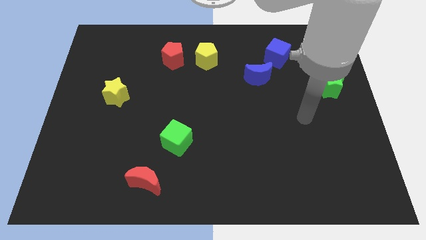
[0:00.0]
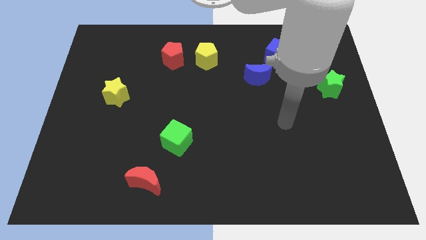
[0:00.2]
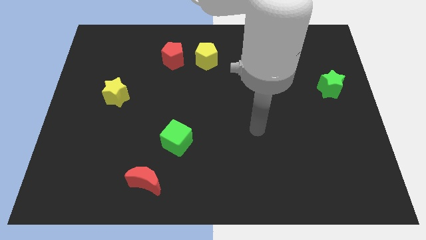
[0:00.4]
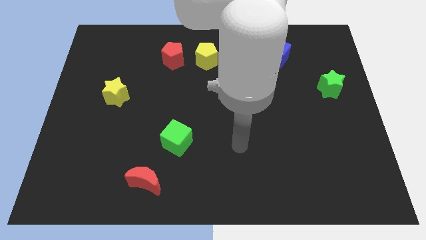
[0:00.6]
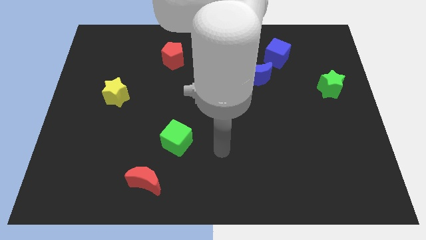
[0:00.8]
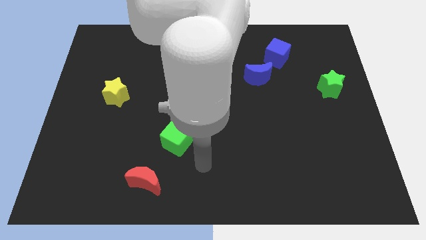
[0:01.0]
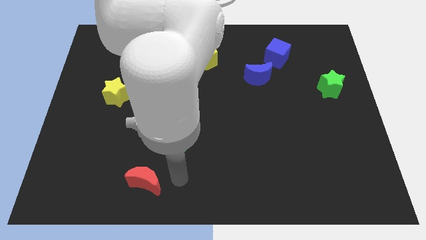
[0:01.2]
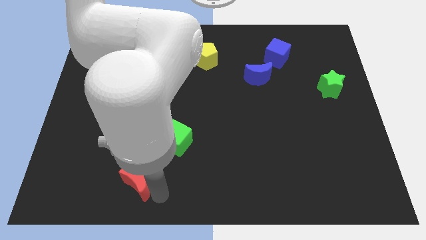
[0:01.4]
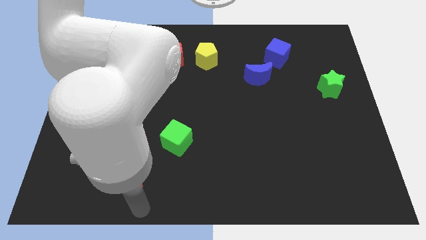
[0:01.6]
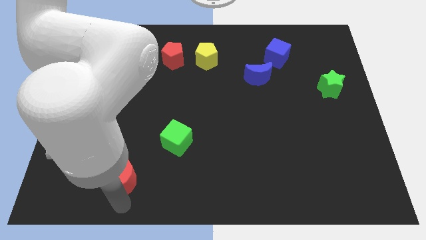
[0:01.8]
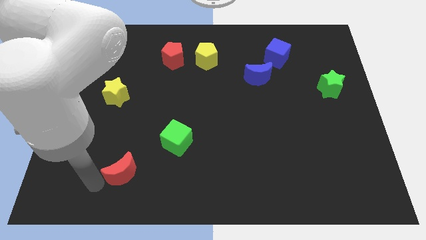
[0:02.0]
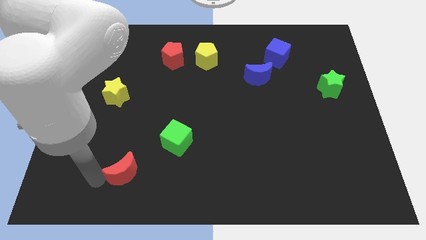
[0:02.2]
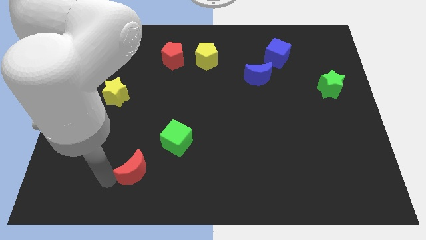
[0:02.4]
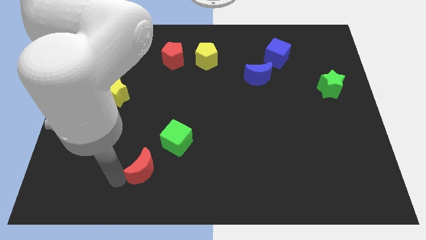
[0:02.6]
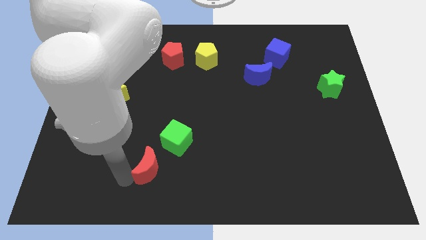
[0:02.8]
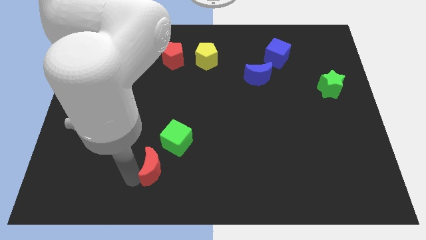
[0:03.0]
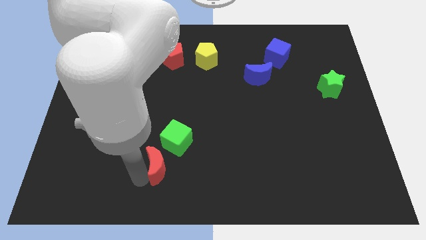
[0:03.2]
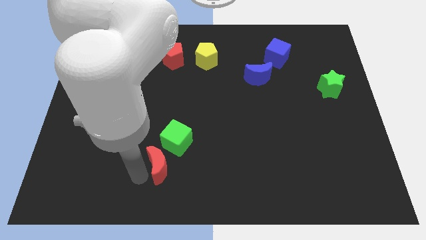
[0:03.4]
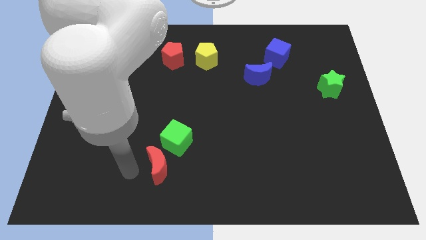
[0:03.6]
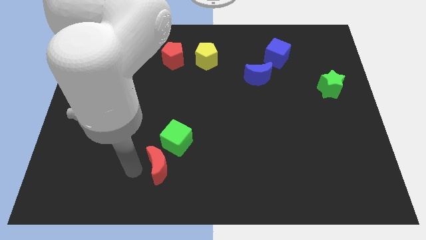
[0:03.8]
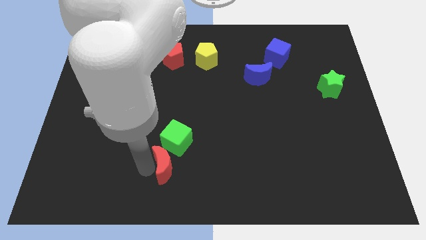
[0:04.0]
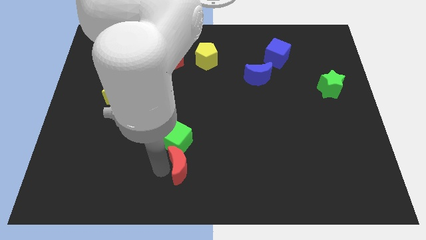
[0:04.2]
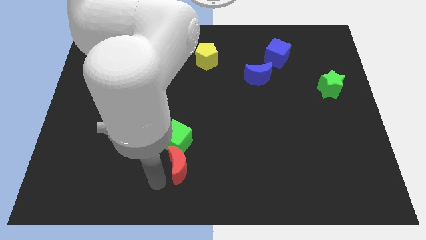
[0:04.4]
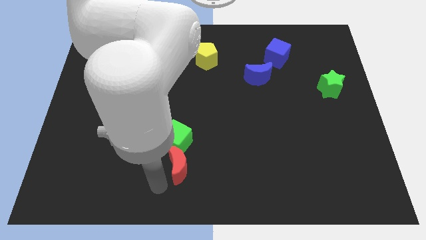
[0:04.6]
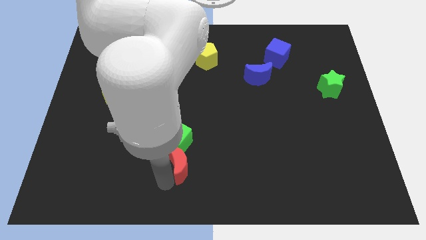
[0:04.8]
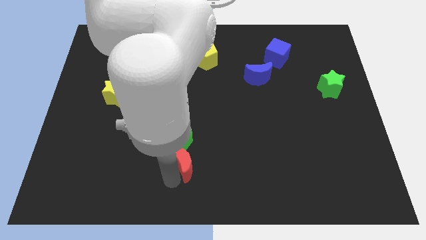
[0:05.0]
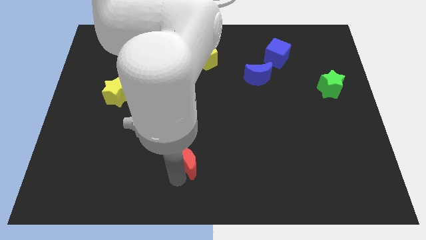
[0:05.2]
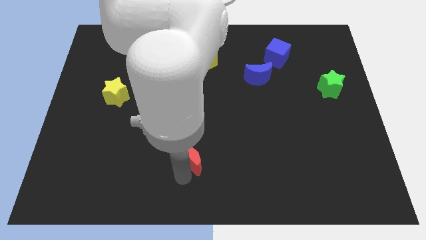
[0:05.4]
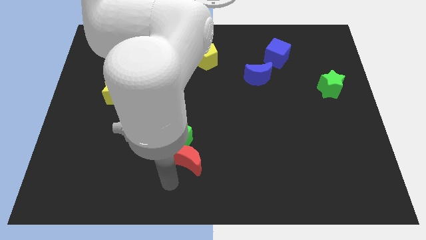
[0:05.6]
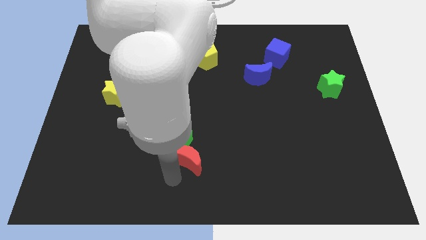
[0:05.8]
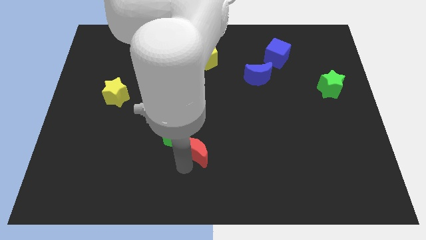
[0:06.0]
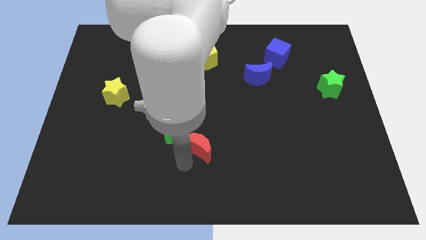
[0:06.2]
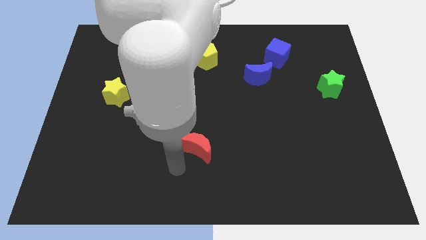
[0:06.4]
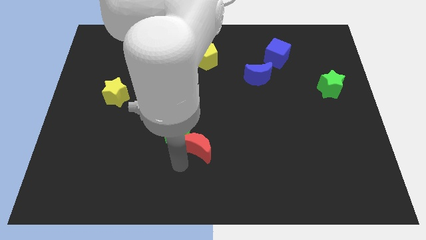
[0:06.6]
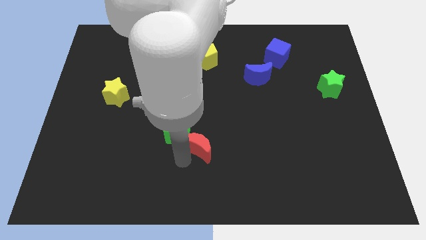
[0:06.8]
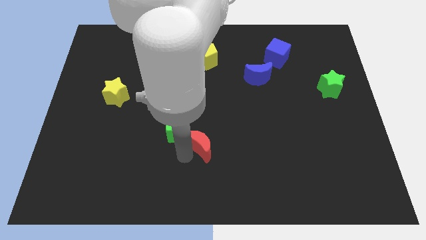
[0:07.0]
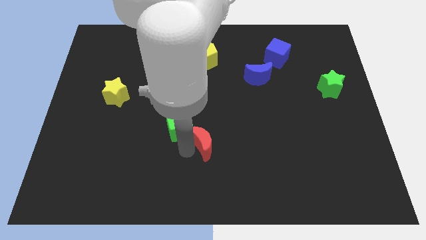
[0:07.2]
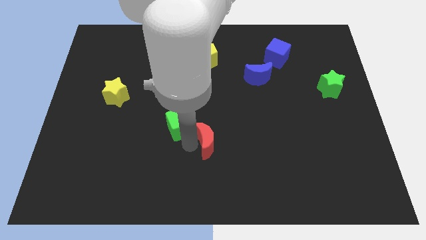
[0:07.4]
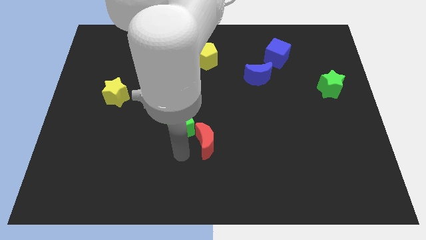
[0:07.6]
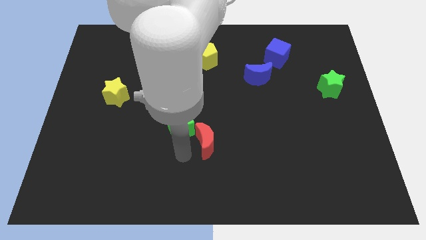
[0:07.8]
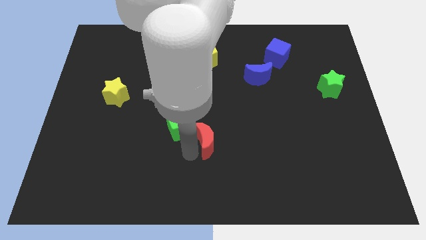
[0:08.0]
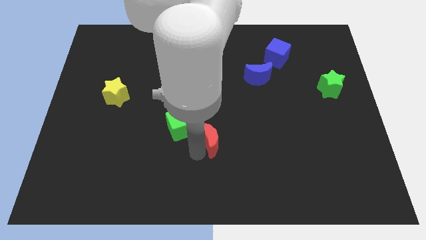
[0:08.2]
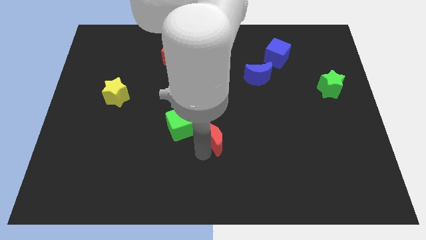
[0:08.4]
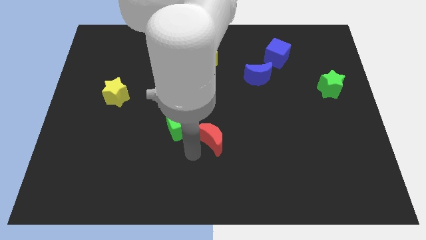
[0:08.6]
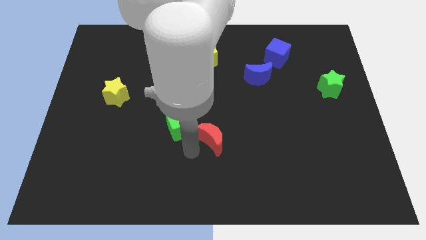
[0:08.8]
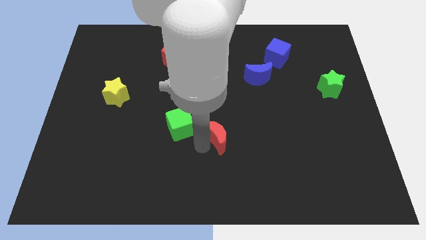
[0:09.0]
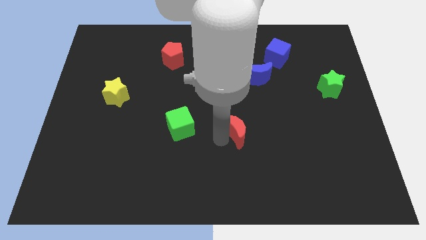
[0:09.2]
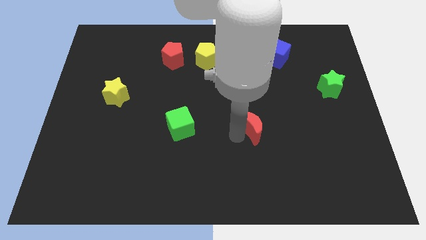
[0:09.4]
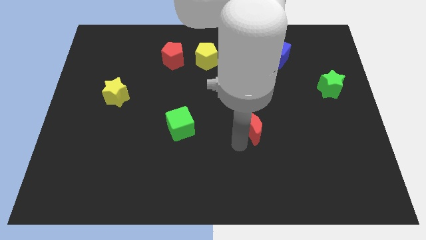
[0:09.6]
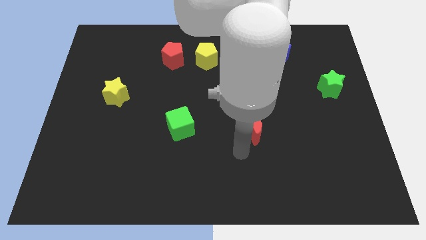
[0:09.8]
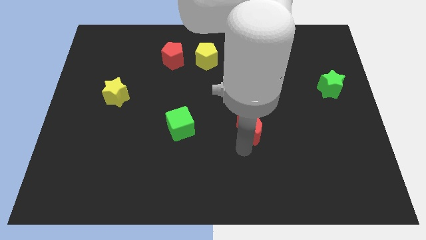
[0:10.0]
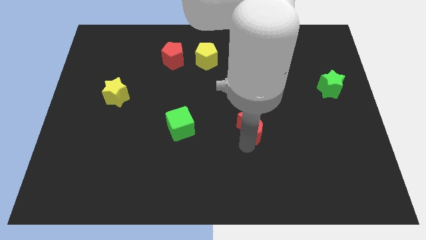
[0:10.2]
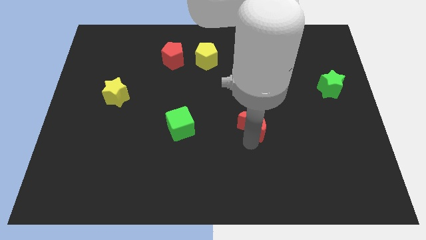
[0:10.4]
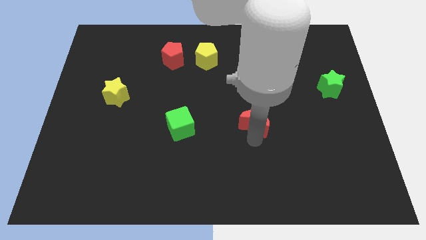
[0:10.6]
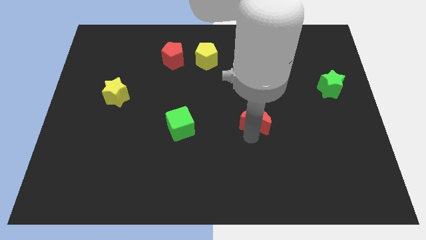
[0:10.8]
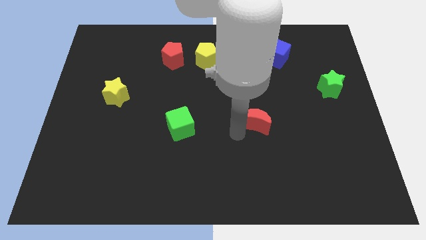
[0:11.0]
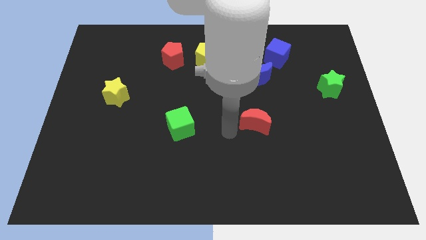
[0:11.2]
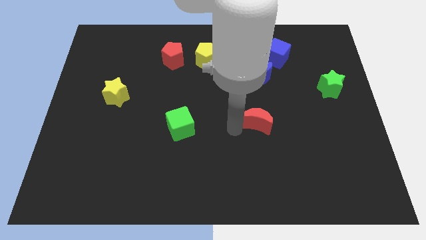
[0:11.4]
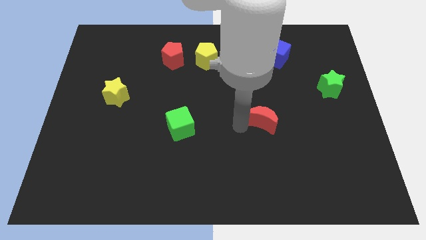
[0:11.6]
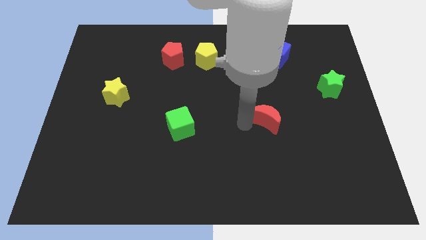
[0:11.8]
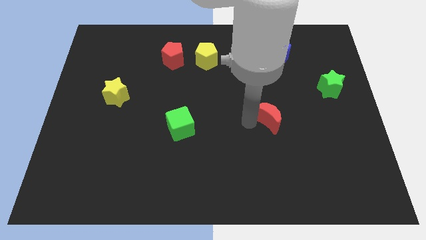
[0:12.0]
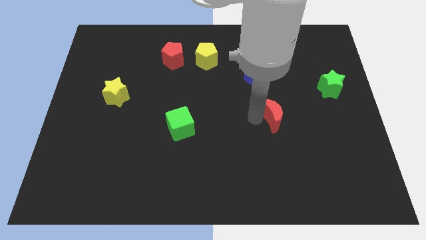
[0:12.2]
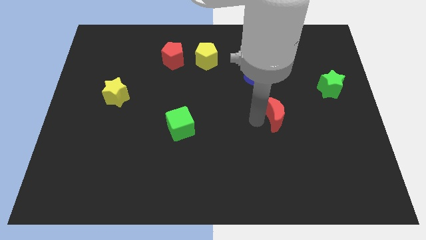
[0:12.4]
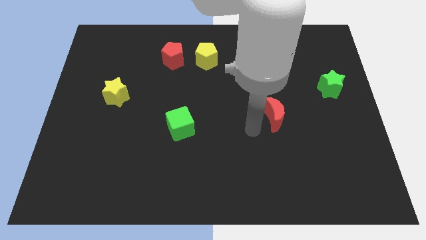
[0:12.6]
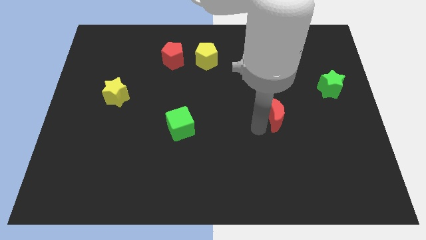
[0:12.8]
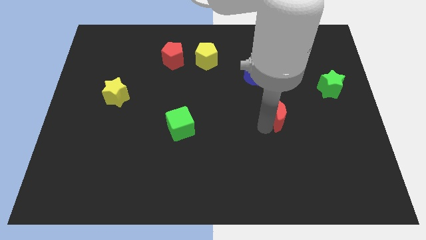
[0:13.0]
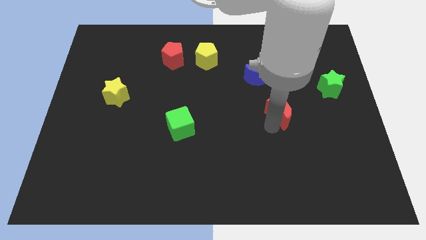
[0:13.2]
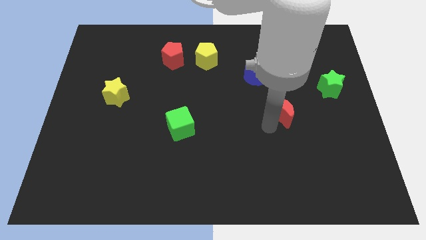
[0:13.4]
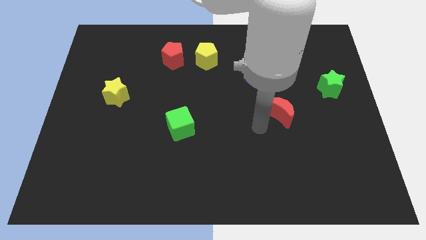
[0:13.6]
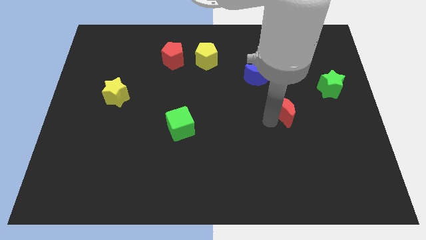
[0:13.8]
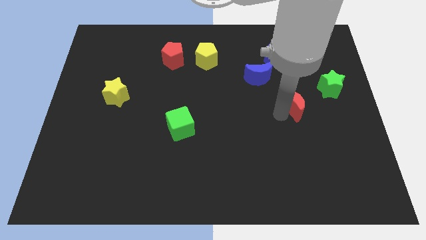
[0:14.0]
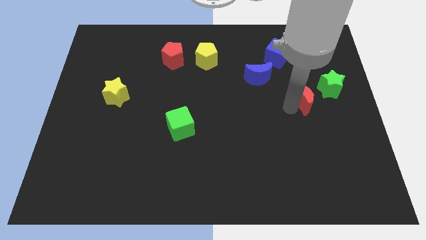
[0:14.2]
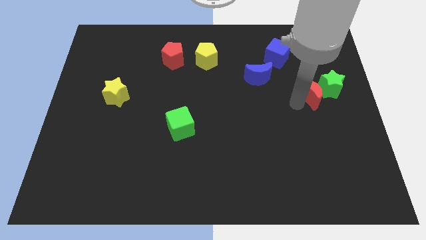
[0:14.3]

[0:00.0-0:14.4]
slide the red moon close to the green star
